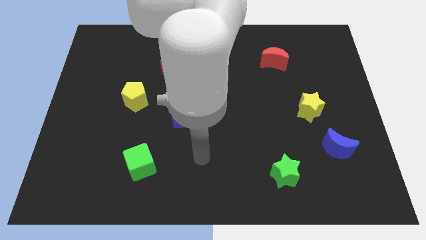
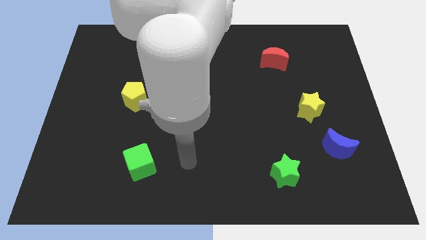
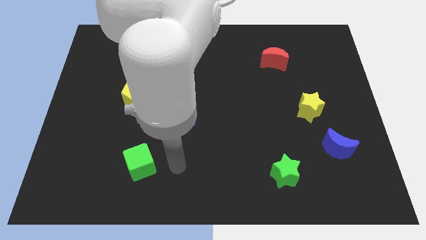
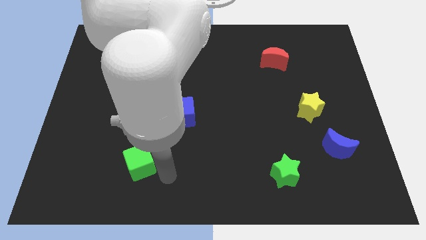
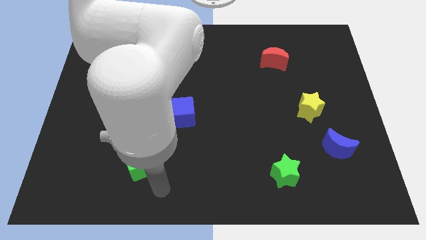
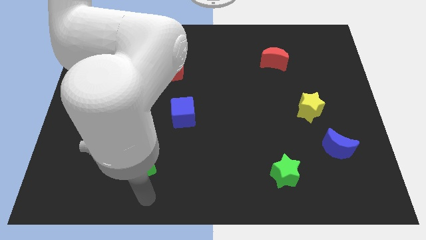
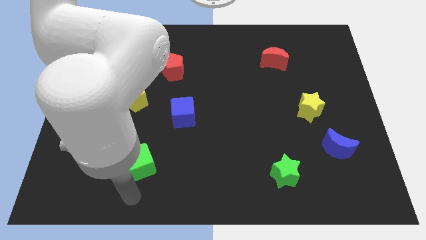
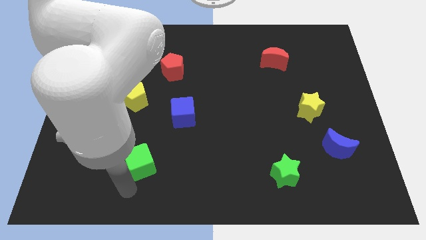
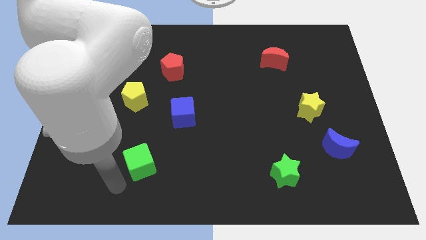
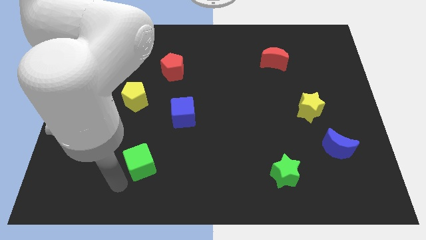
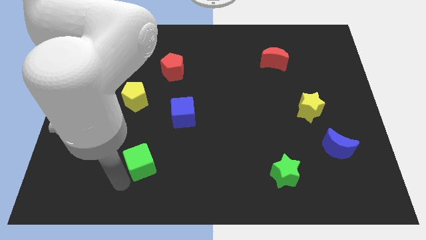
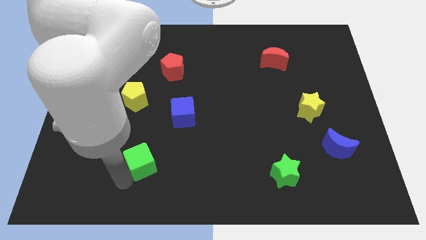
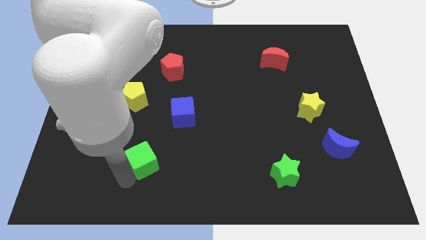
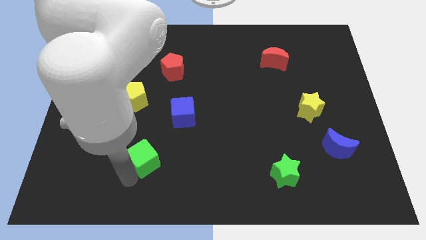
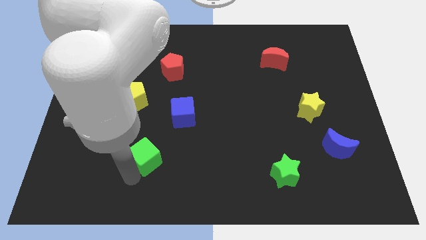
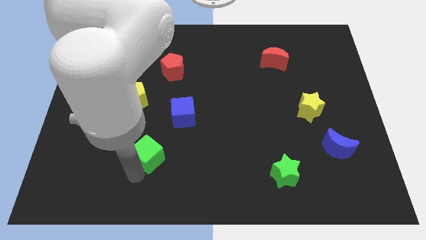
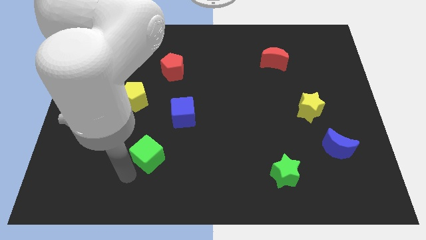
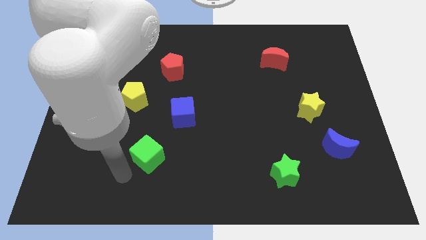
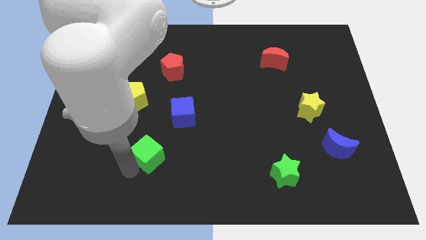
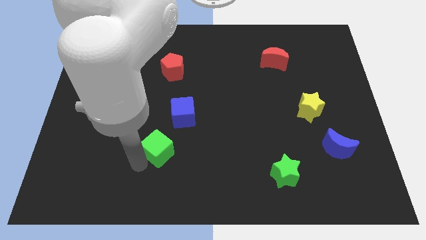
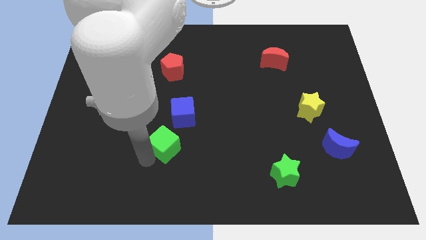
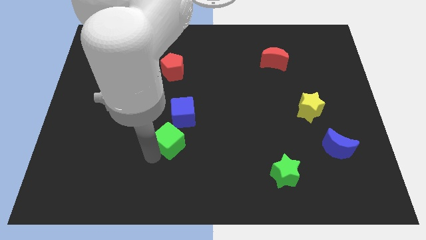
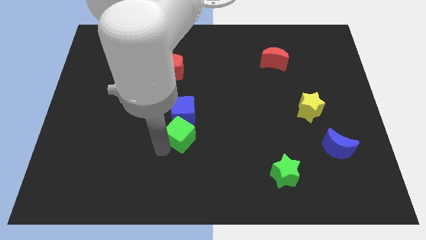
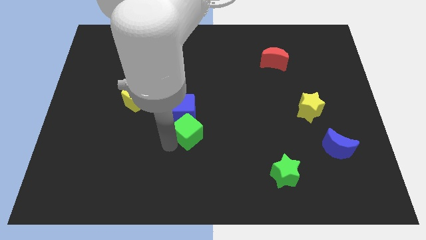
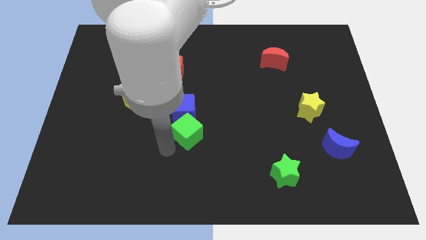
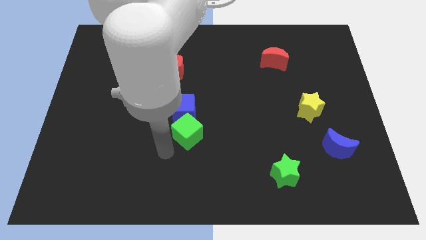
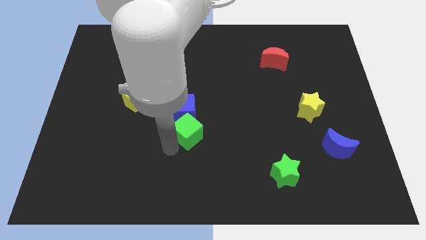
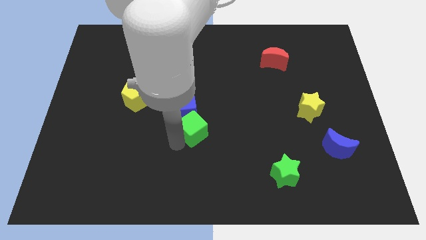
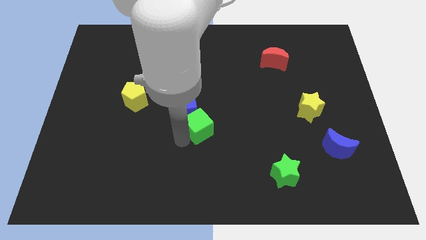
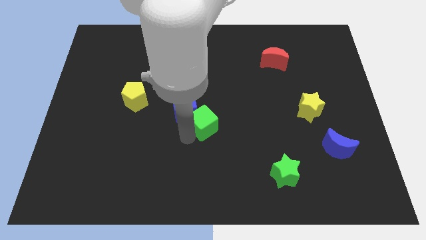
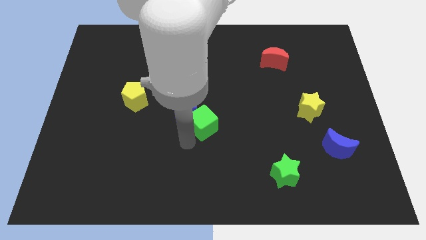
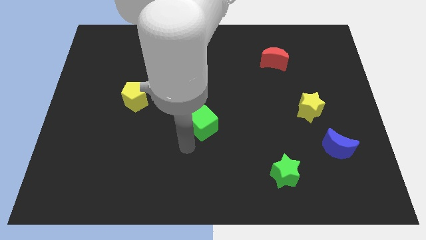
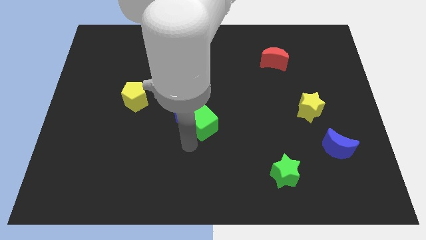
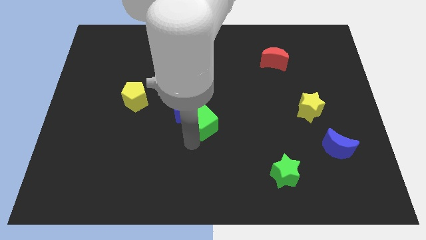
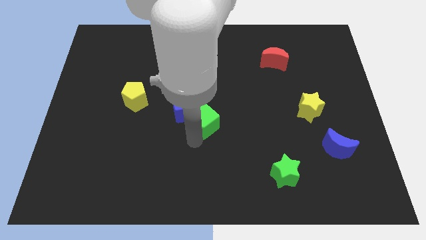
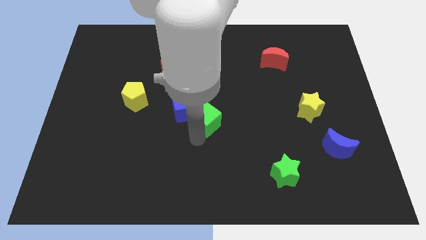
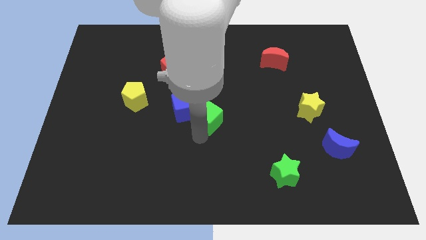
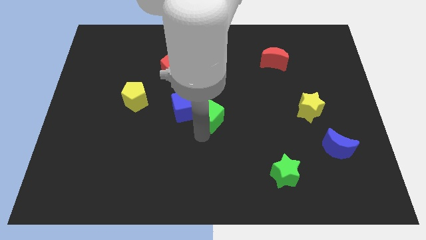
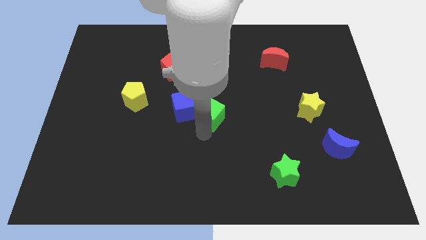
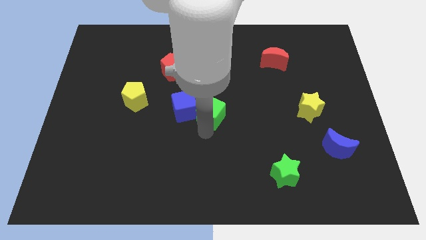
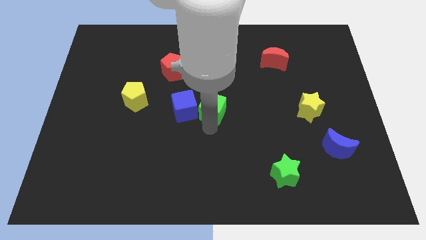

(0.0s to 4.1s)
push the green cube up and right

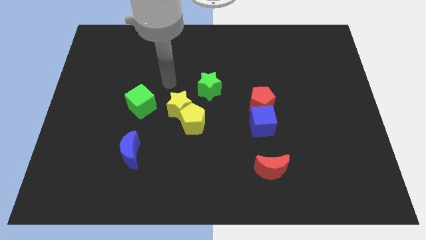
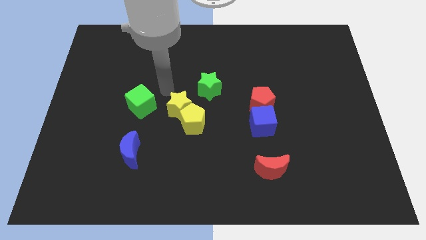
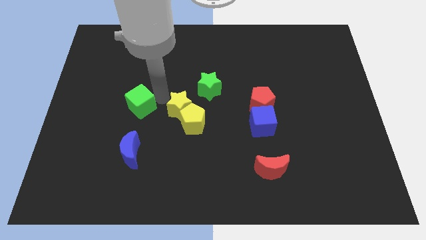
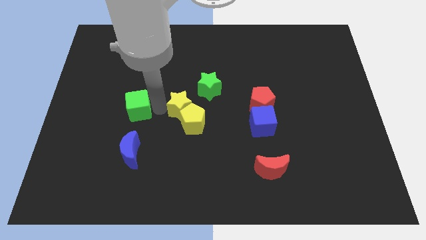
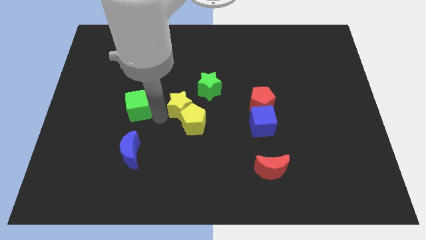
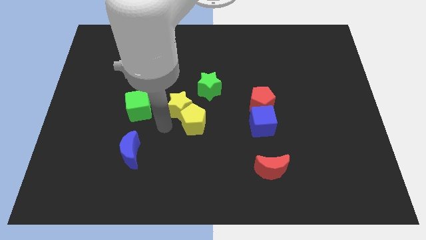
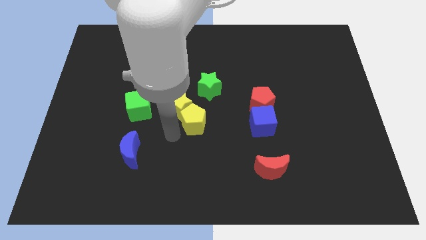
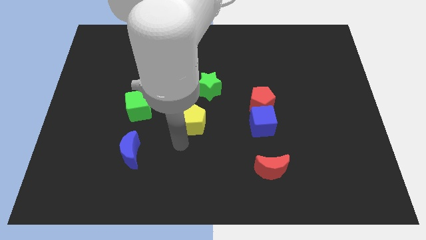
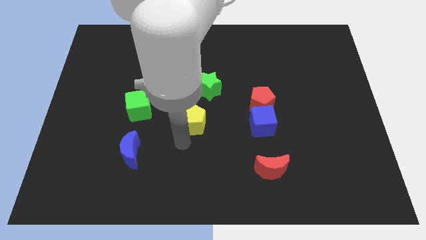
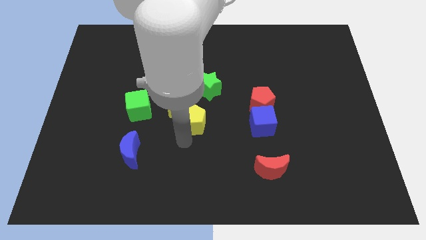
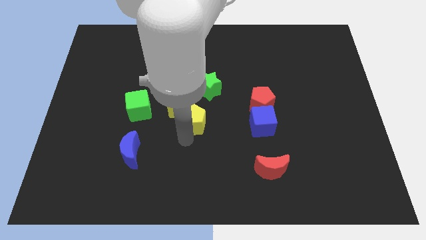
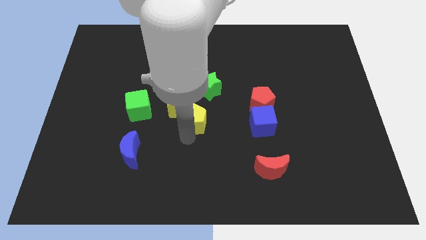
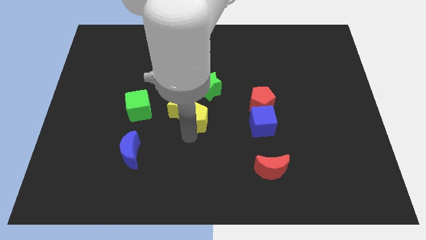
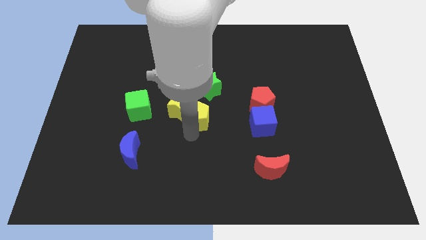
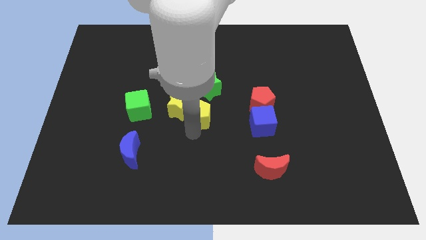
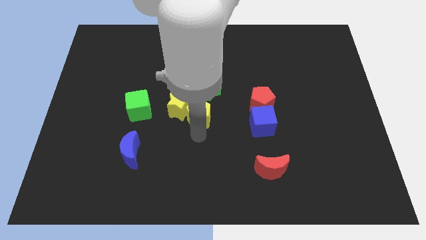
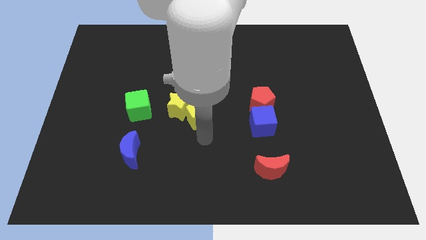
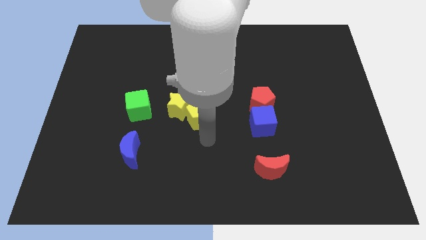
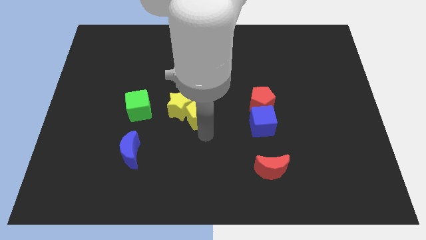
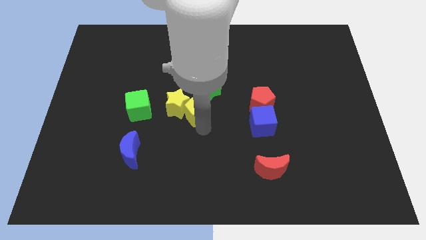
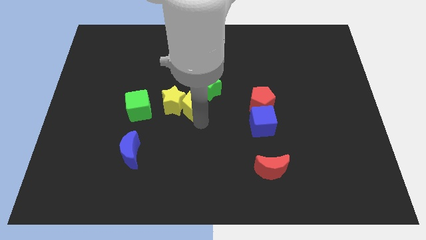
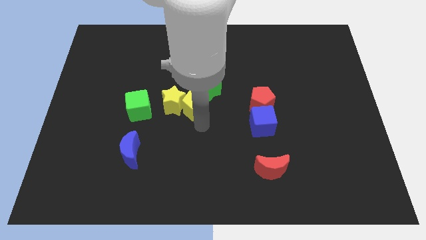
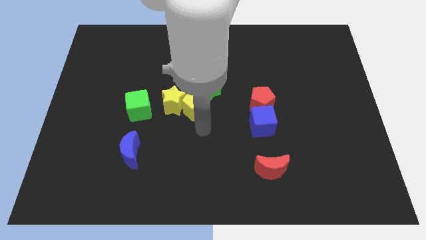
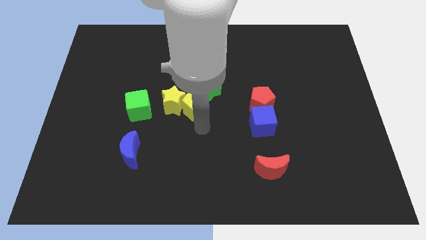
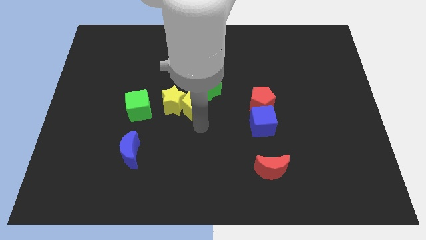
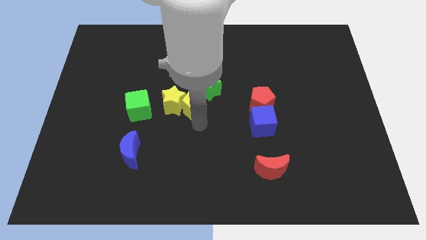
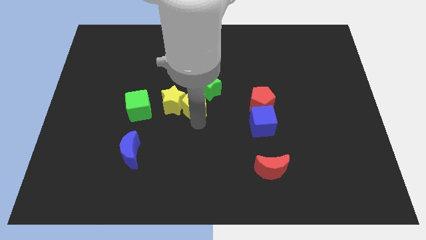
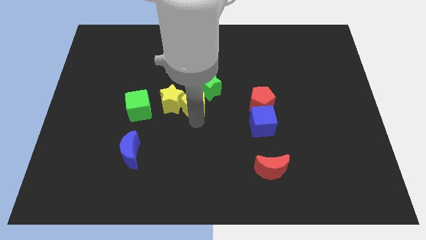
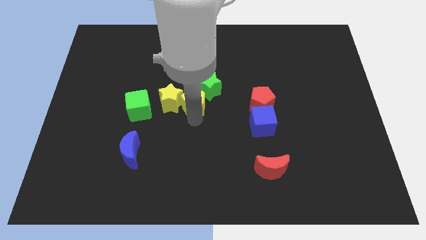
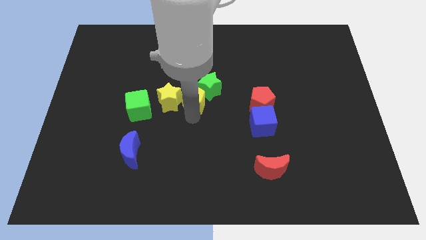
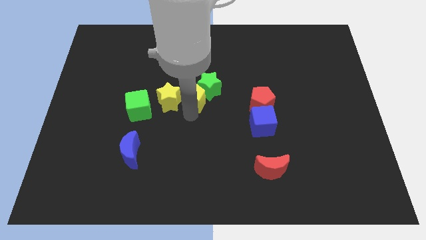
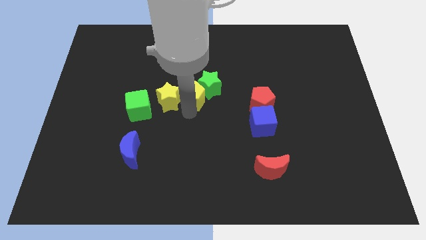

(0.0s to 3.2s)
push the yellow pentagon up a little

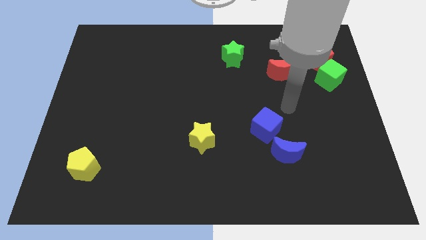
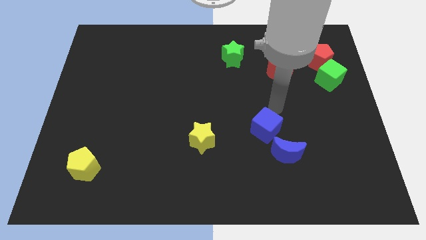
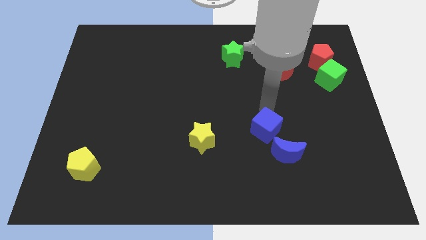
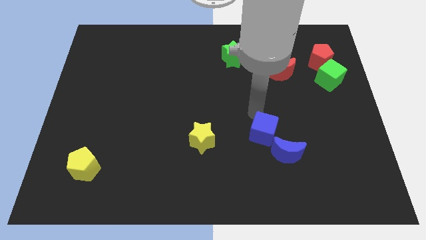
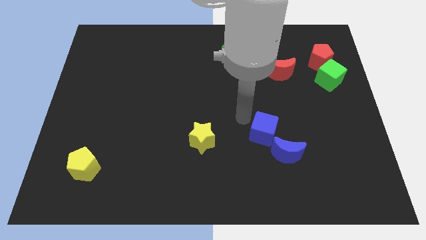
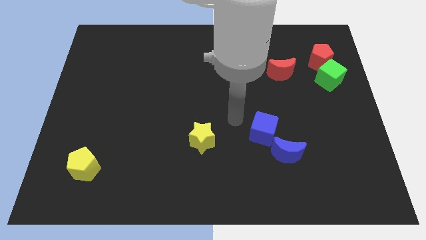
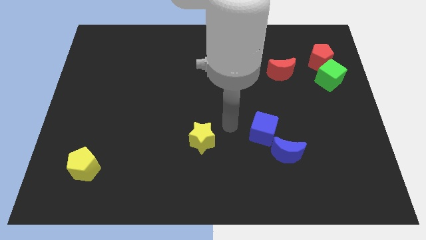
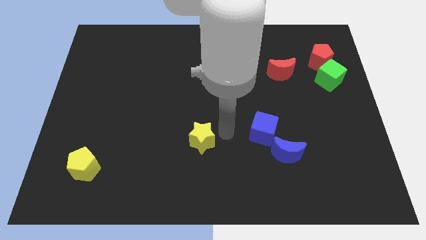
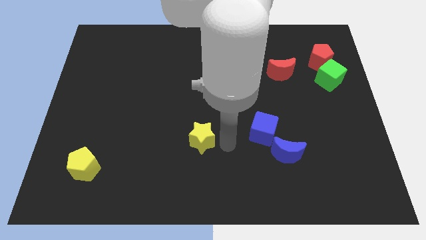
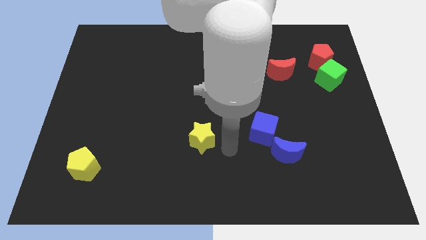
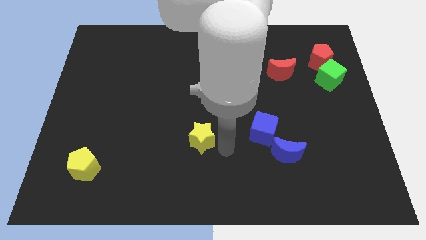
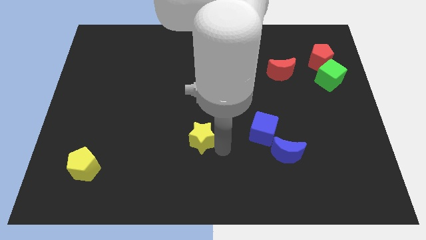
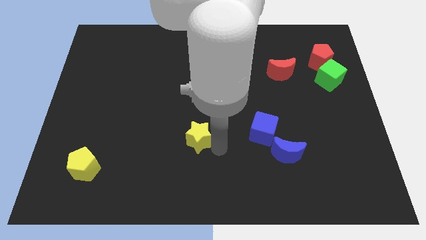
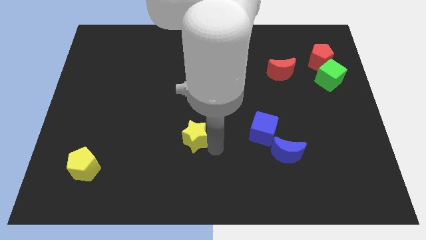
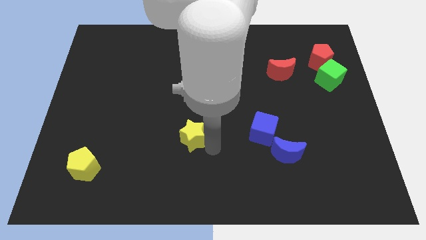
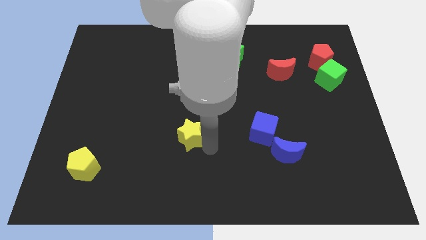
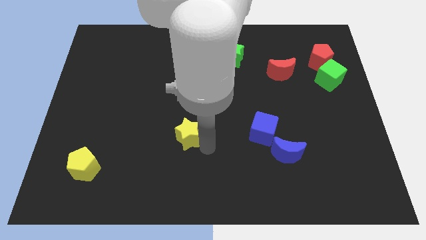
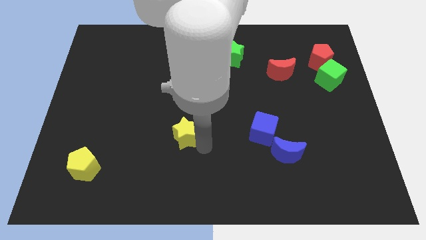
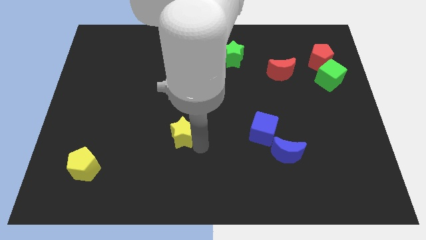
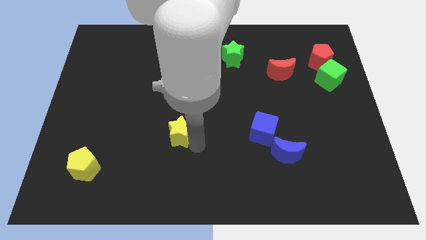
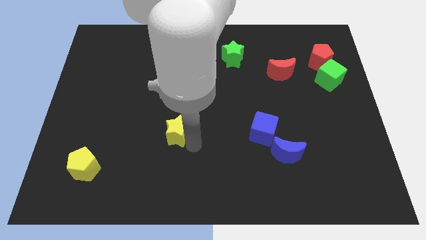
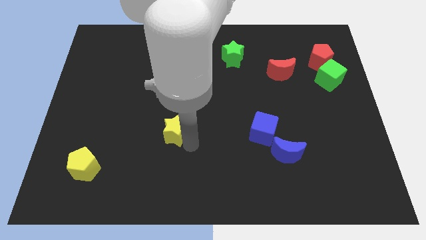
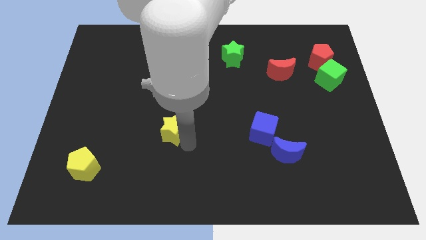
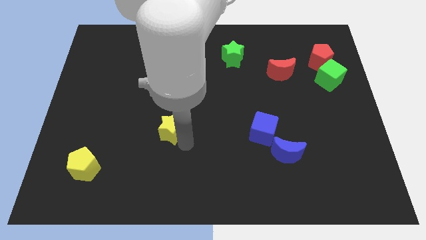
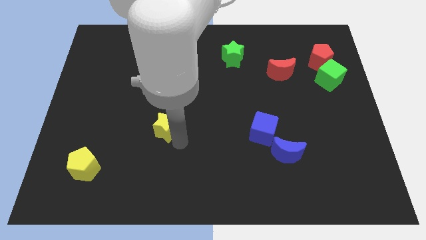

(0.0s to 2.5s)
move the yellow star somewhat up and to the left diagonally
